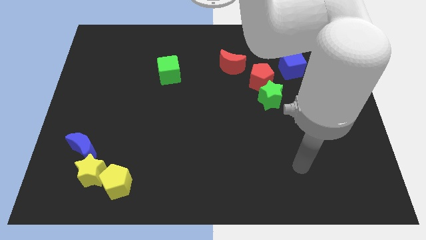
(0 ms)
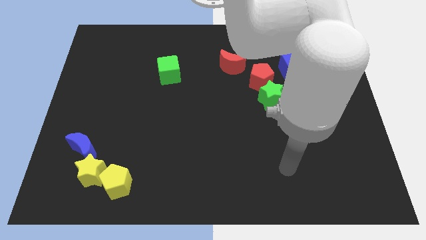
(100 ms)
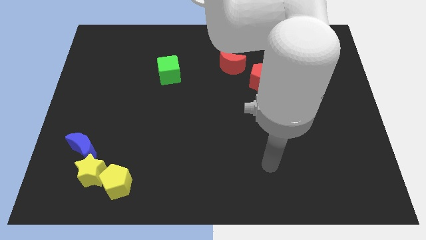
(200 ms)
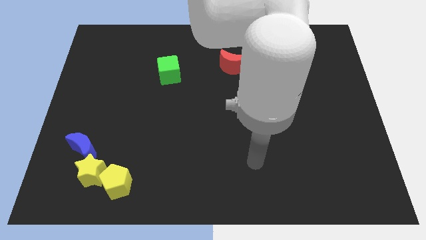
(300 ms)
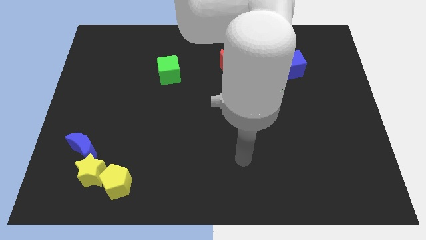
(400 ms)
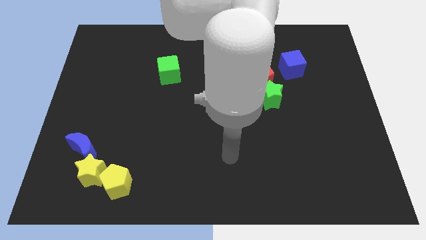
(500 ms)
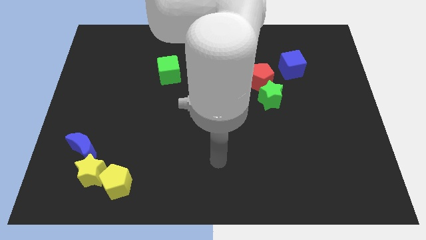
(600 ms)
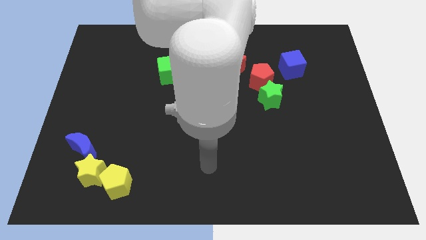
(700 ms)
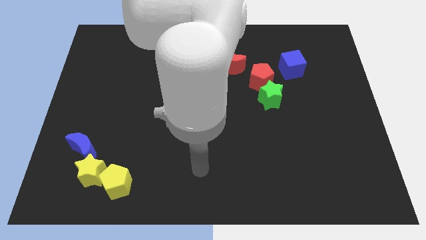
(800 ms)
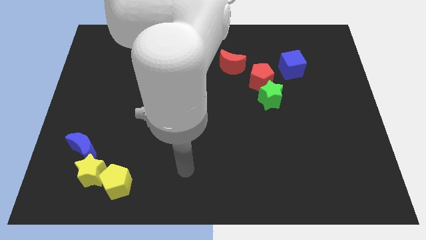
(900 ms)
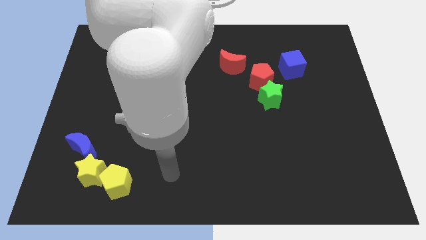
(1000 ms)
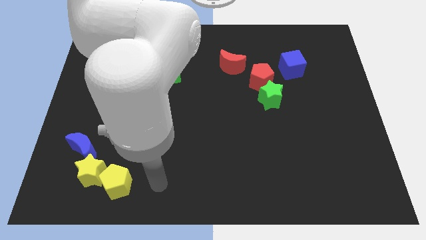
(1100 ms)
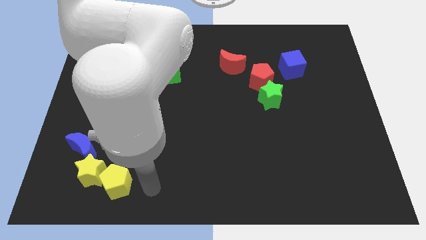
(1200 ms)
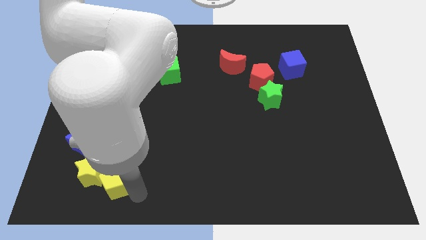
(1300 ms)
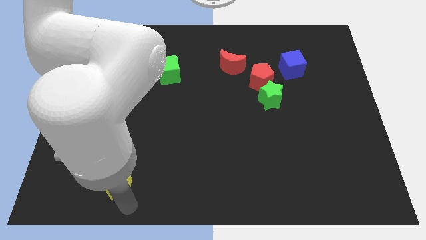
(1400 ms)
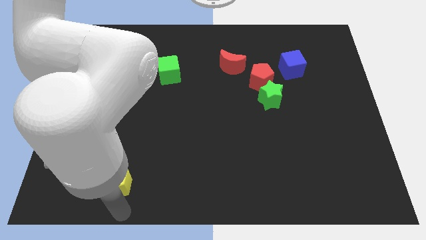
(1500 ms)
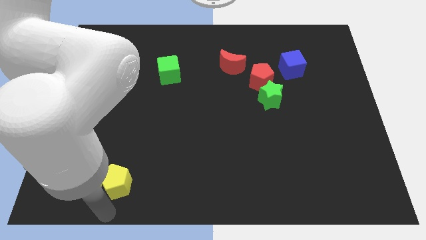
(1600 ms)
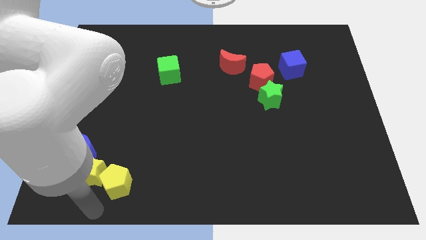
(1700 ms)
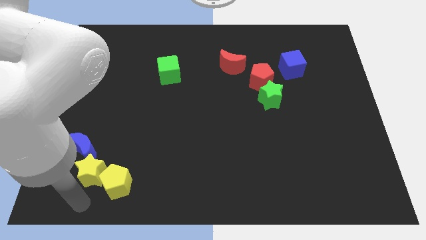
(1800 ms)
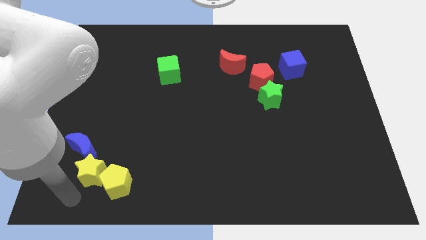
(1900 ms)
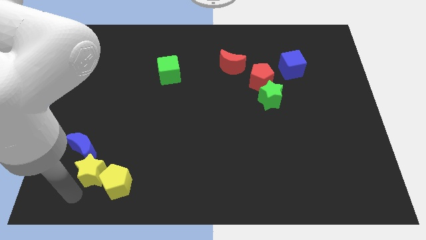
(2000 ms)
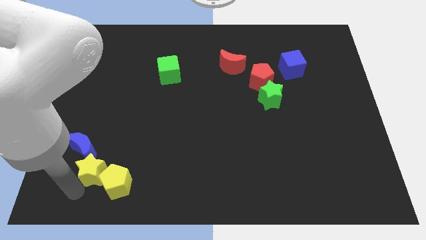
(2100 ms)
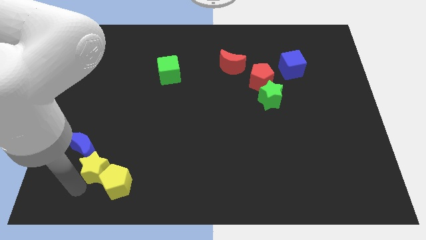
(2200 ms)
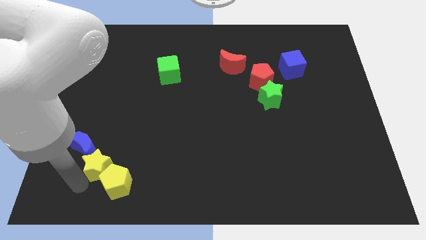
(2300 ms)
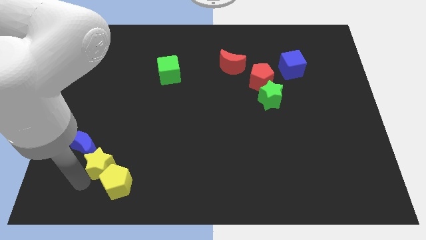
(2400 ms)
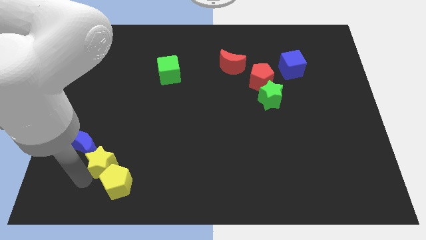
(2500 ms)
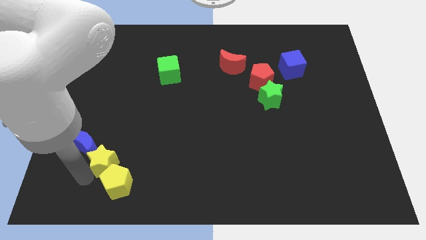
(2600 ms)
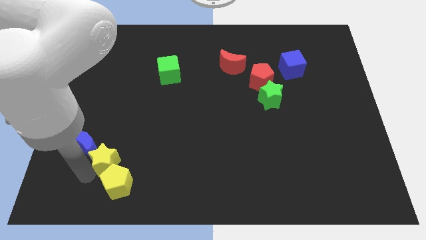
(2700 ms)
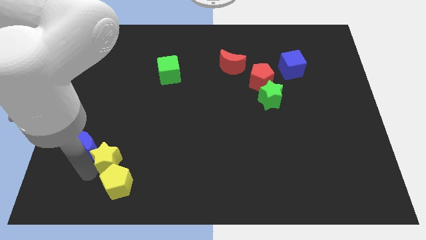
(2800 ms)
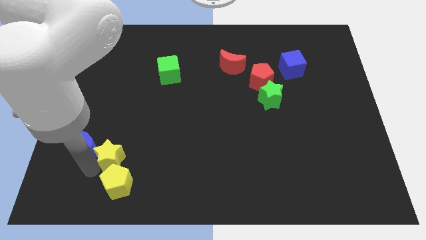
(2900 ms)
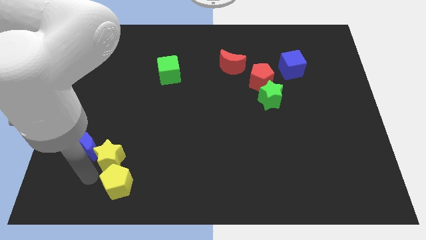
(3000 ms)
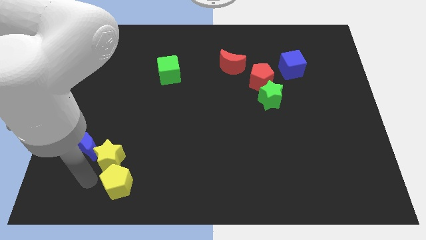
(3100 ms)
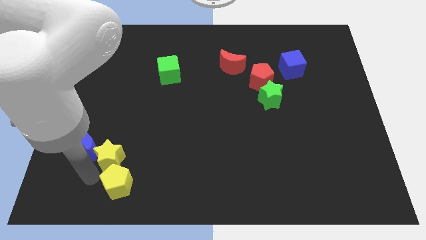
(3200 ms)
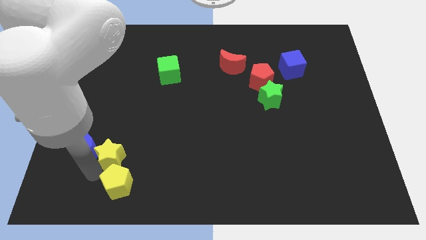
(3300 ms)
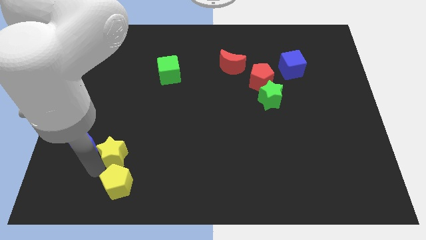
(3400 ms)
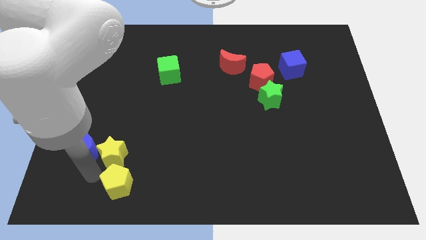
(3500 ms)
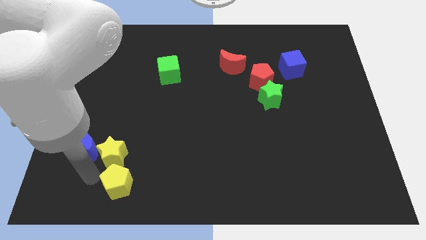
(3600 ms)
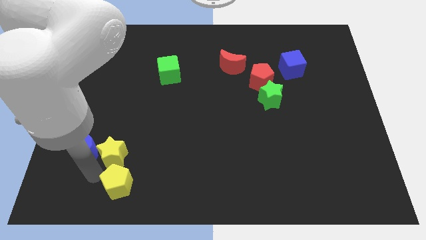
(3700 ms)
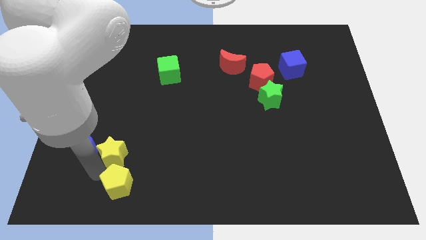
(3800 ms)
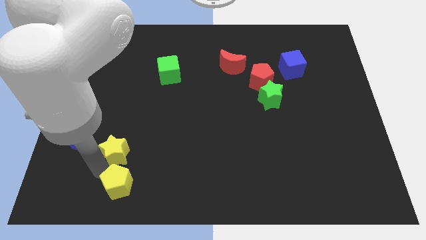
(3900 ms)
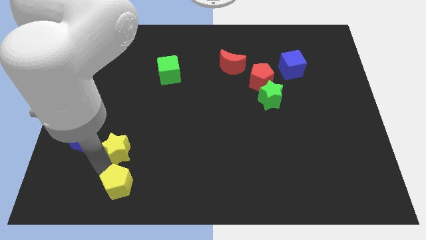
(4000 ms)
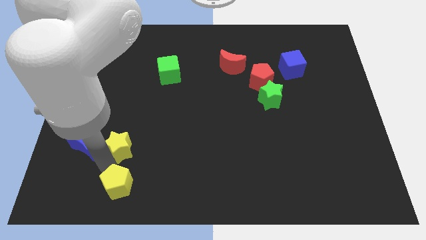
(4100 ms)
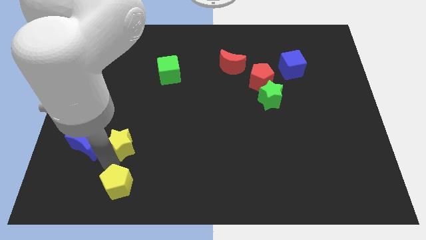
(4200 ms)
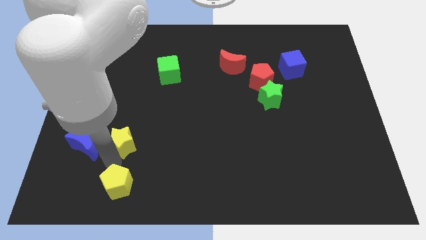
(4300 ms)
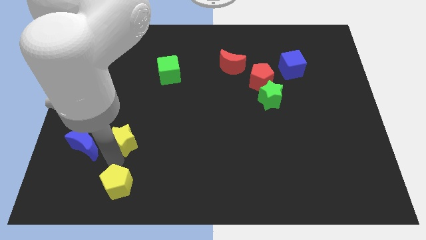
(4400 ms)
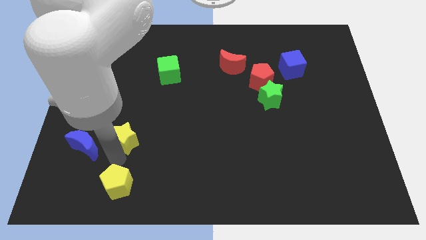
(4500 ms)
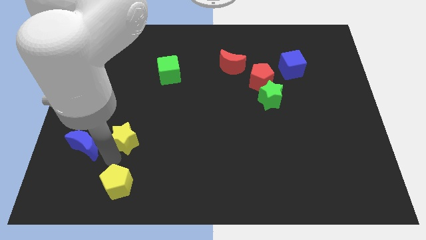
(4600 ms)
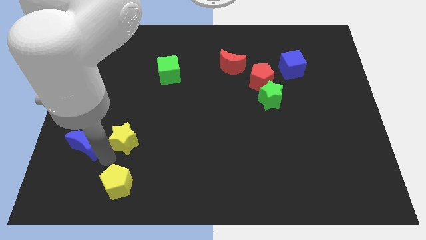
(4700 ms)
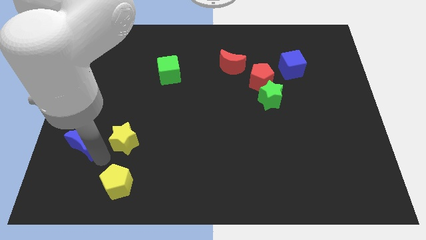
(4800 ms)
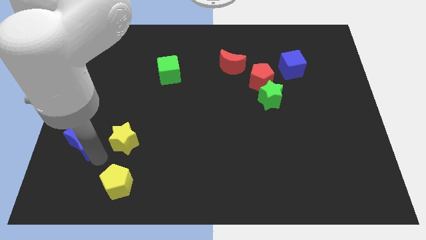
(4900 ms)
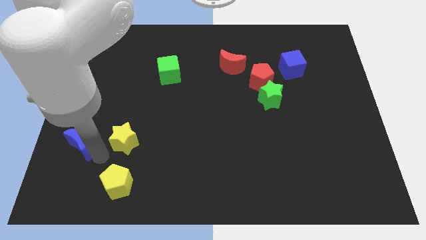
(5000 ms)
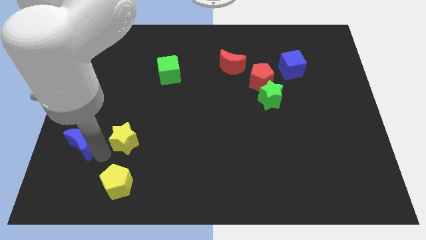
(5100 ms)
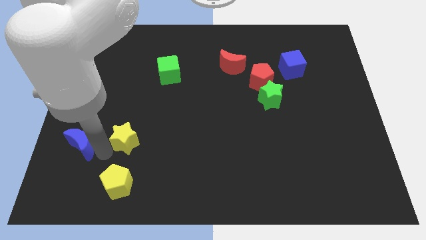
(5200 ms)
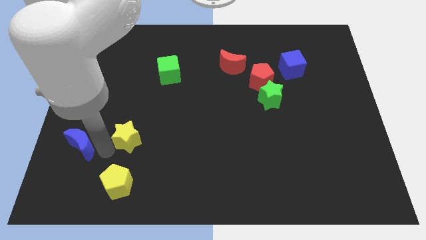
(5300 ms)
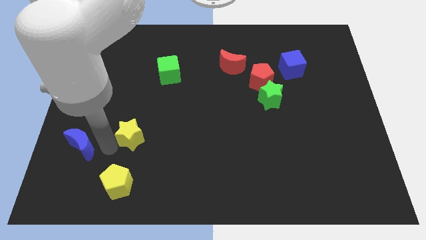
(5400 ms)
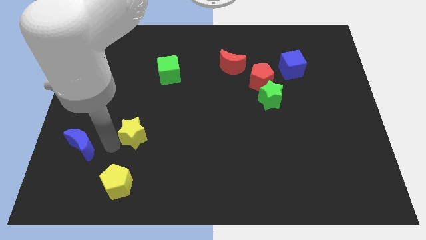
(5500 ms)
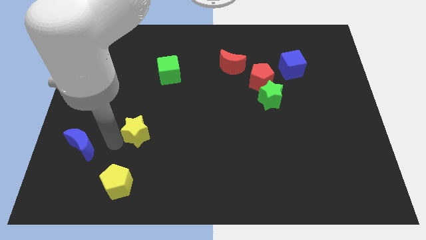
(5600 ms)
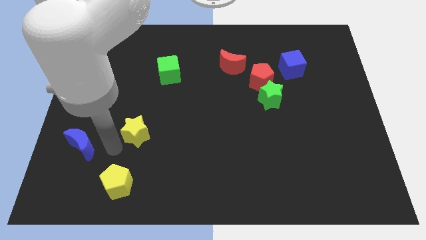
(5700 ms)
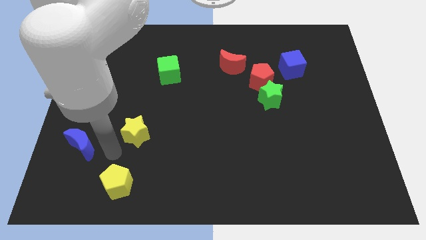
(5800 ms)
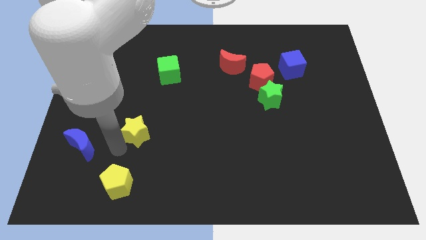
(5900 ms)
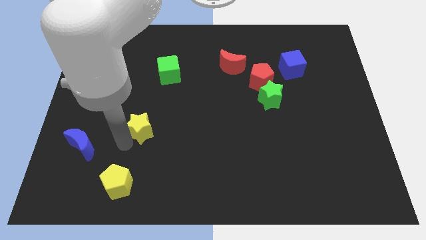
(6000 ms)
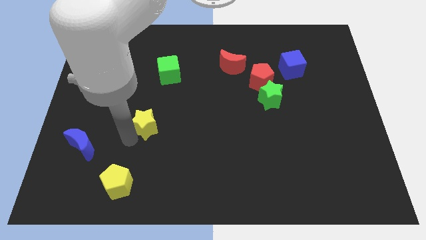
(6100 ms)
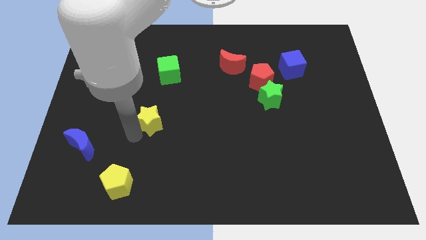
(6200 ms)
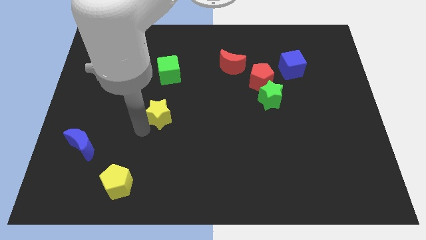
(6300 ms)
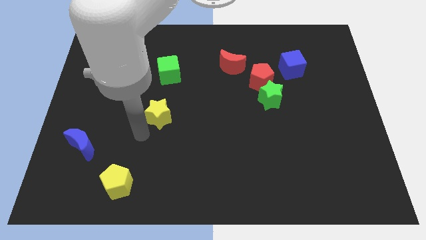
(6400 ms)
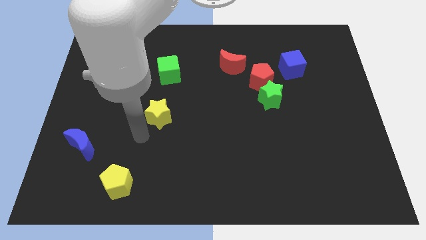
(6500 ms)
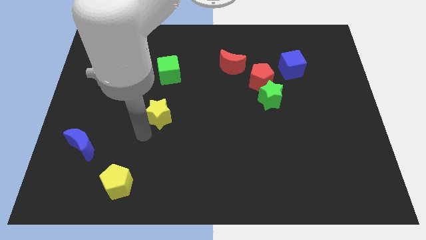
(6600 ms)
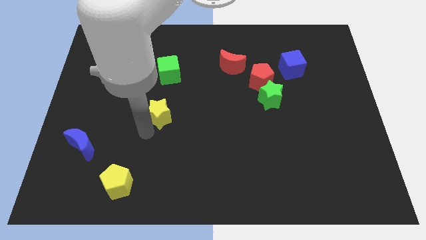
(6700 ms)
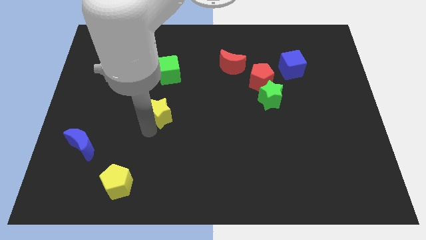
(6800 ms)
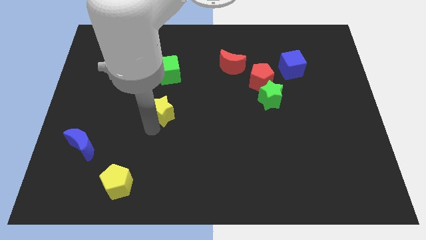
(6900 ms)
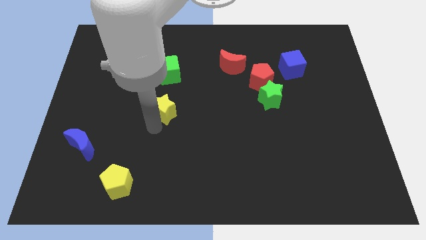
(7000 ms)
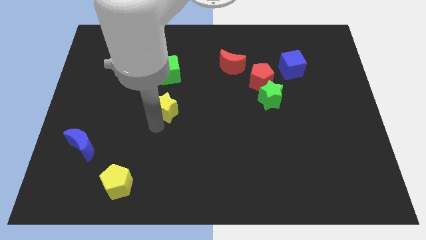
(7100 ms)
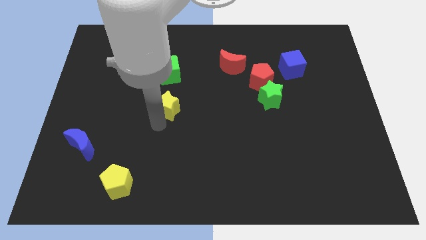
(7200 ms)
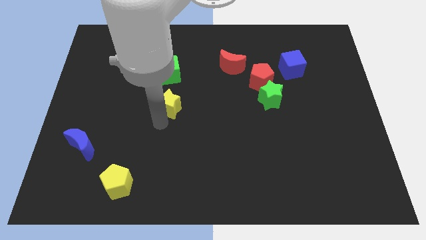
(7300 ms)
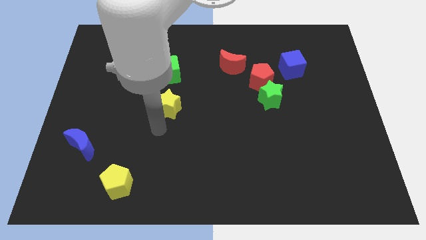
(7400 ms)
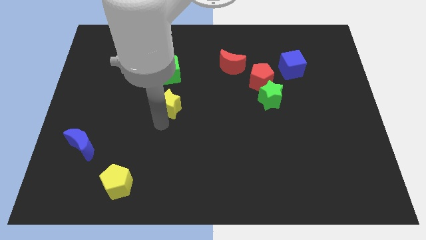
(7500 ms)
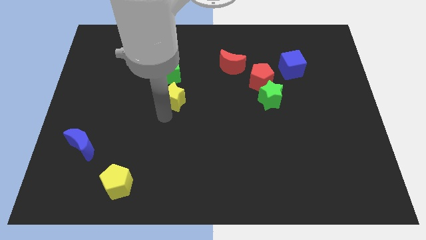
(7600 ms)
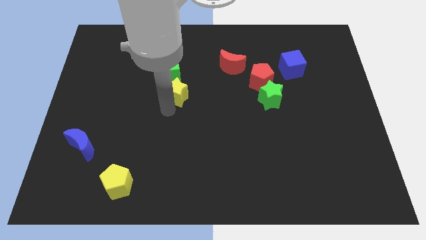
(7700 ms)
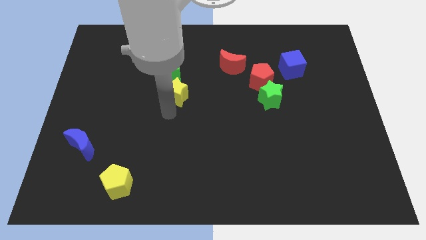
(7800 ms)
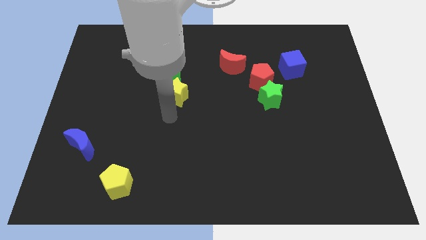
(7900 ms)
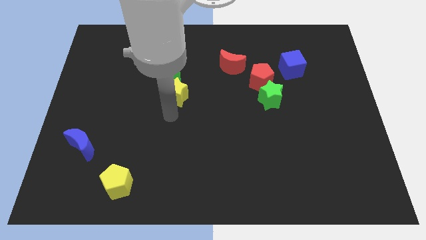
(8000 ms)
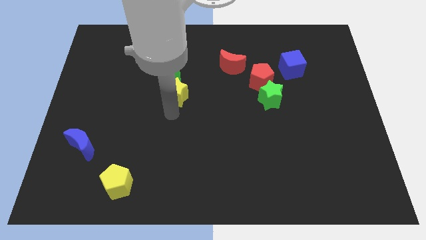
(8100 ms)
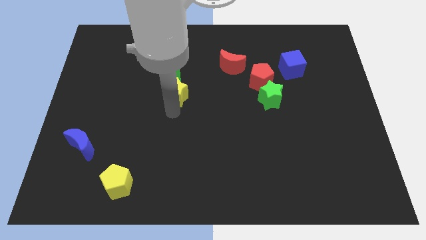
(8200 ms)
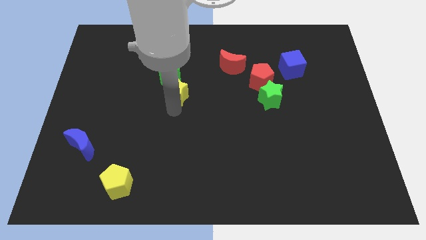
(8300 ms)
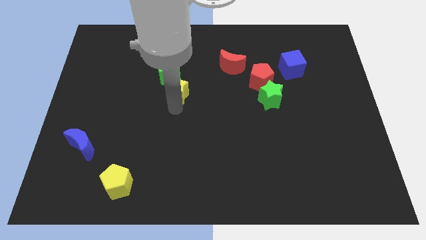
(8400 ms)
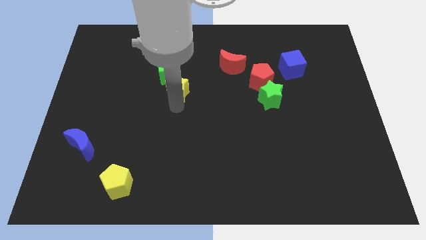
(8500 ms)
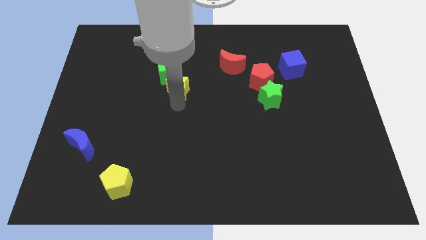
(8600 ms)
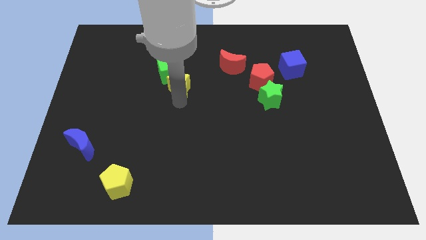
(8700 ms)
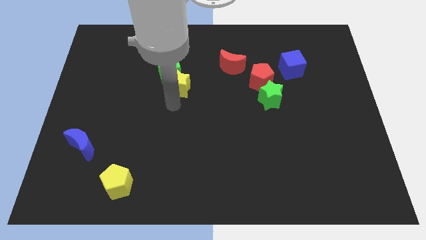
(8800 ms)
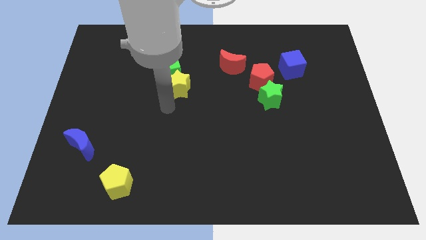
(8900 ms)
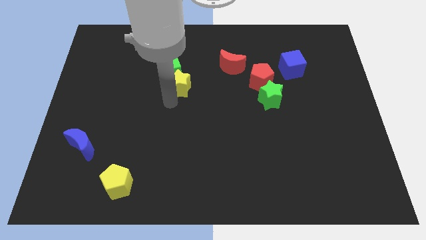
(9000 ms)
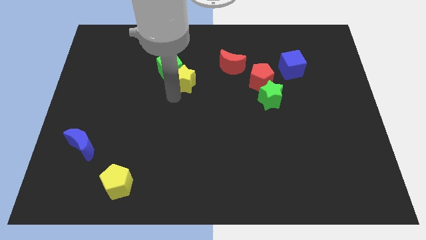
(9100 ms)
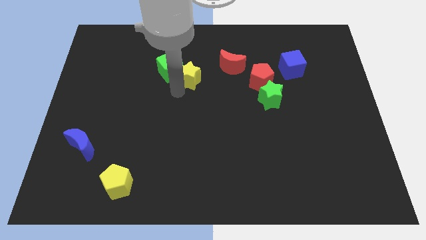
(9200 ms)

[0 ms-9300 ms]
move the yellow star left of the red moon
